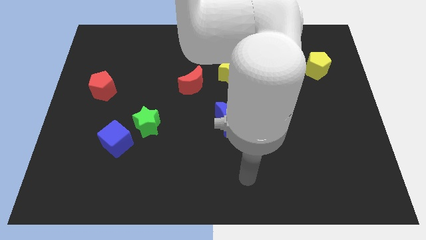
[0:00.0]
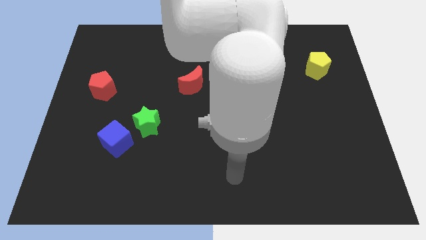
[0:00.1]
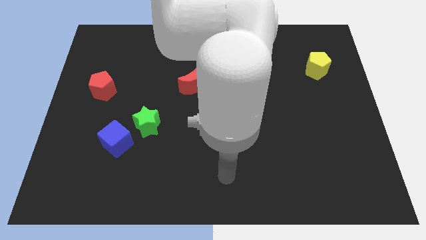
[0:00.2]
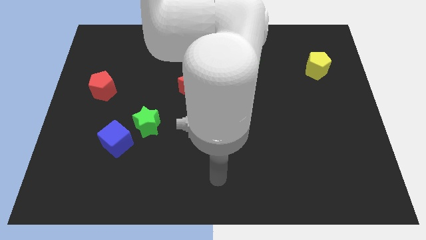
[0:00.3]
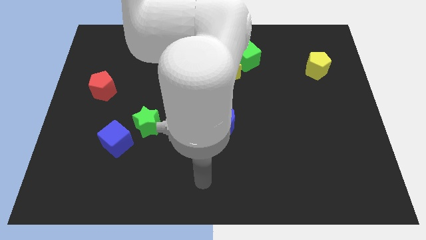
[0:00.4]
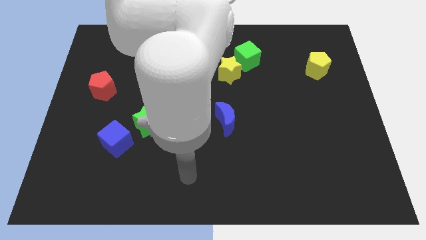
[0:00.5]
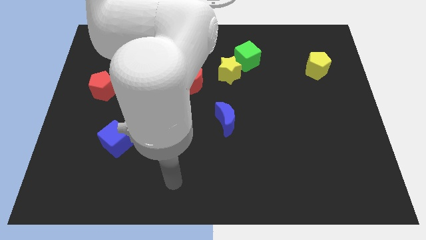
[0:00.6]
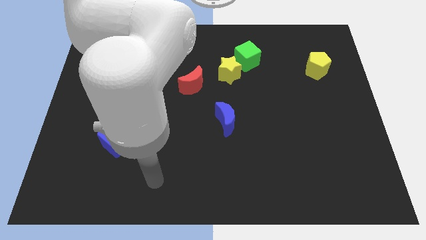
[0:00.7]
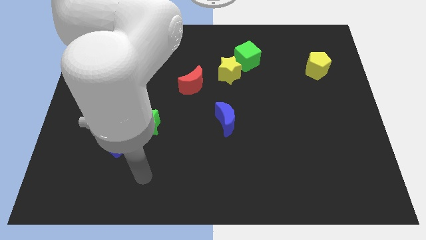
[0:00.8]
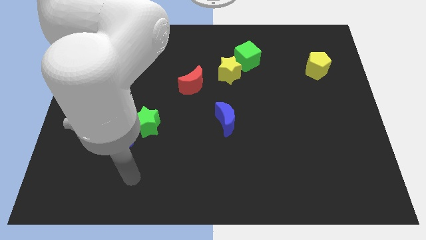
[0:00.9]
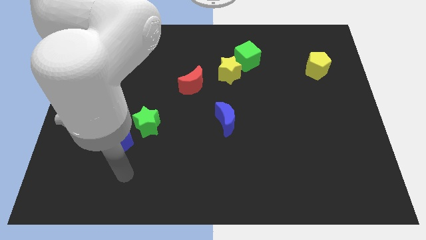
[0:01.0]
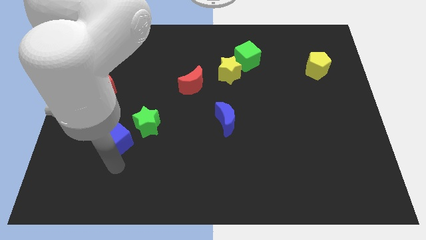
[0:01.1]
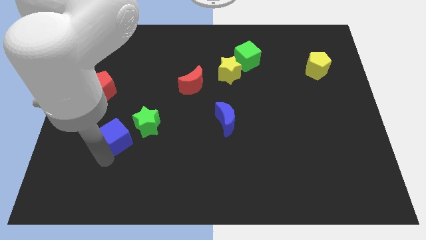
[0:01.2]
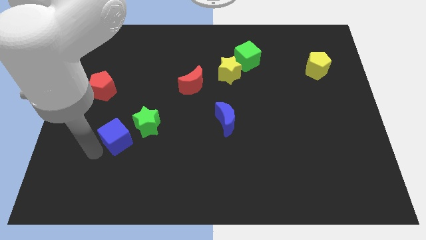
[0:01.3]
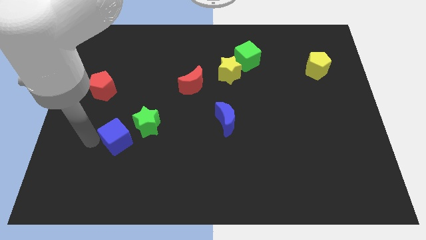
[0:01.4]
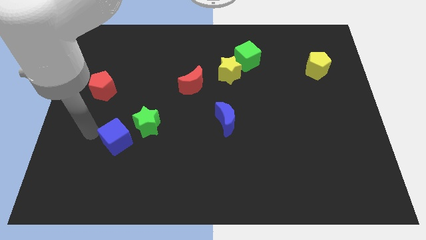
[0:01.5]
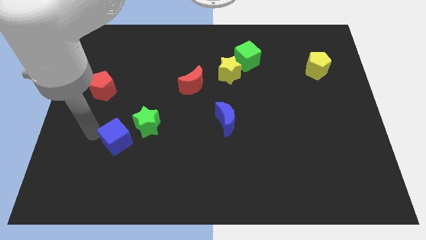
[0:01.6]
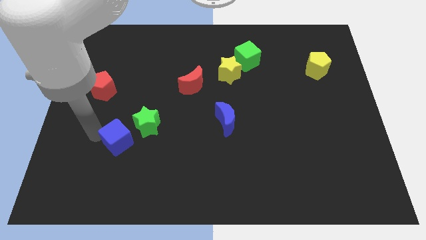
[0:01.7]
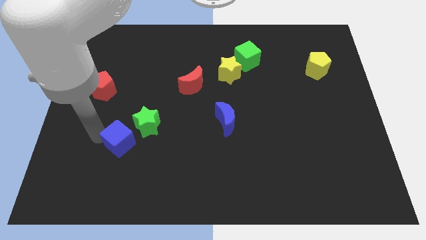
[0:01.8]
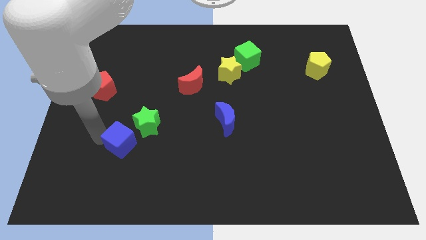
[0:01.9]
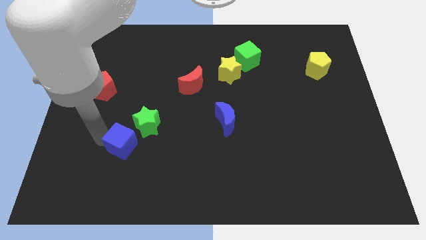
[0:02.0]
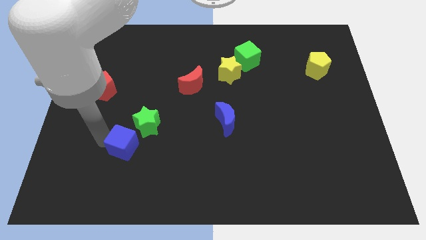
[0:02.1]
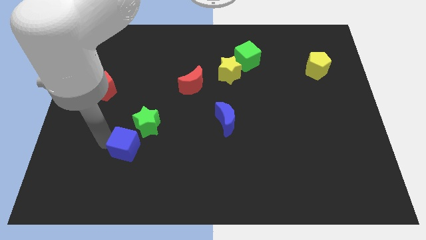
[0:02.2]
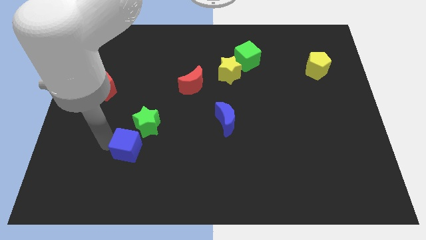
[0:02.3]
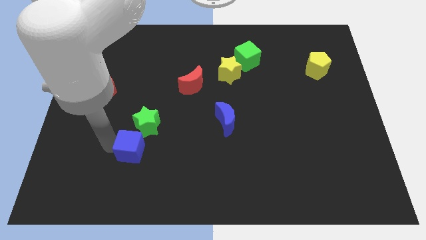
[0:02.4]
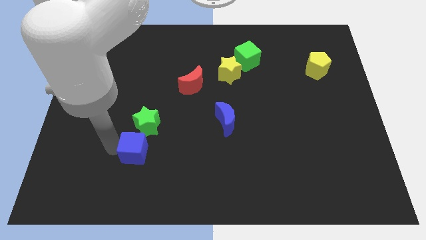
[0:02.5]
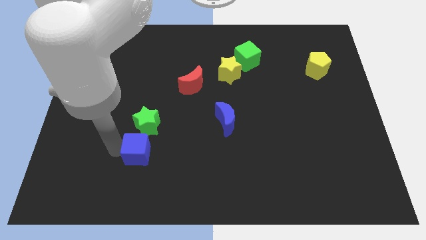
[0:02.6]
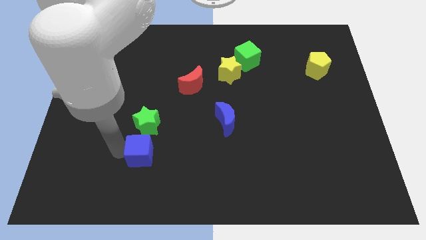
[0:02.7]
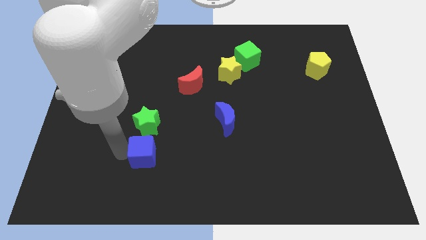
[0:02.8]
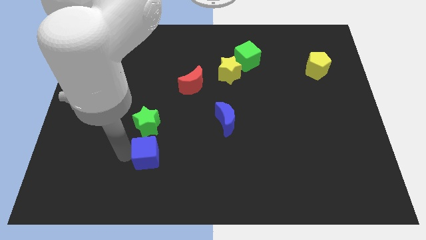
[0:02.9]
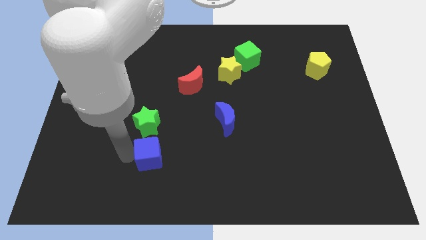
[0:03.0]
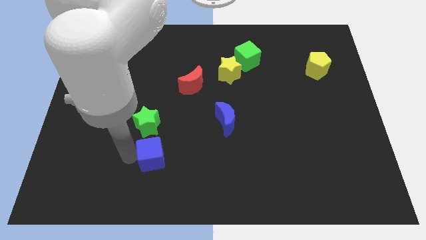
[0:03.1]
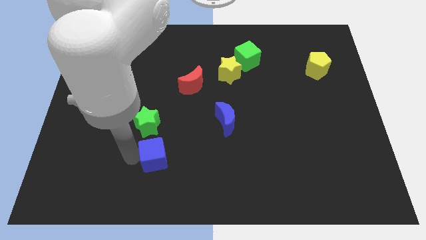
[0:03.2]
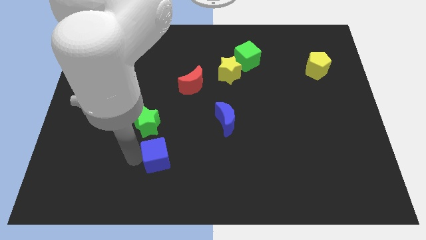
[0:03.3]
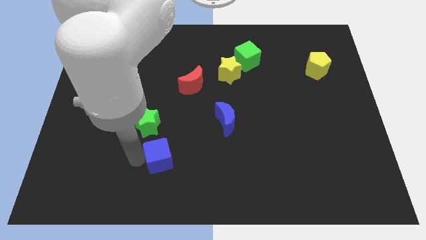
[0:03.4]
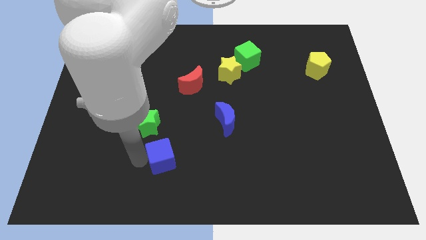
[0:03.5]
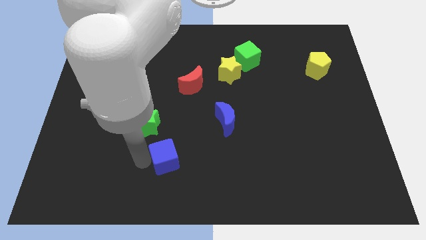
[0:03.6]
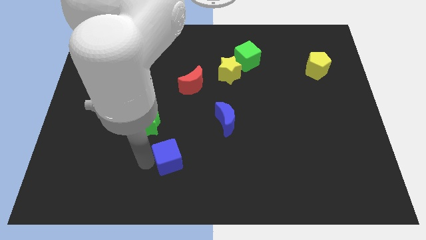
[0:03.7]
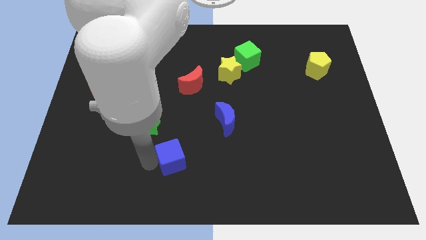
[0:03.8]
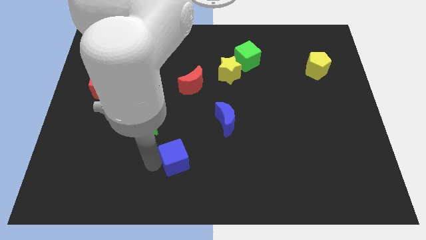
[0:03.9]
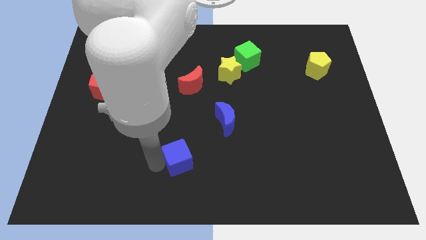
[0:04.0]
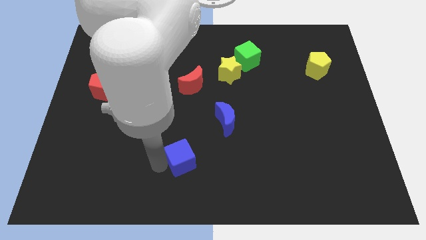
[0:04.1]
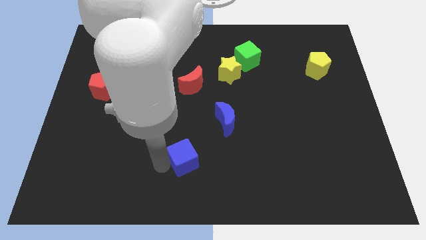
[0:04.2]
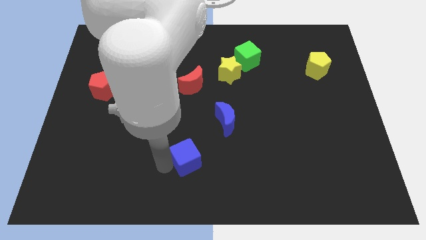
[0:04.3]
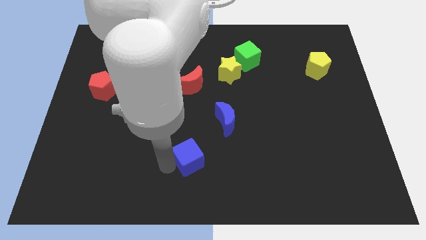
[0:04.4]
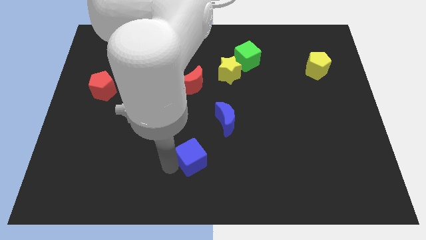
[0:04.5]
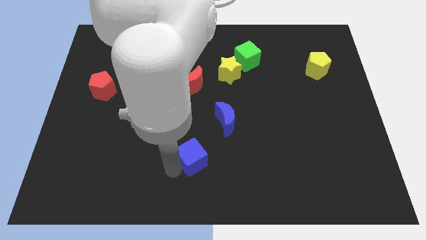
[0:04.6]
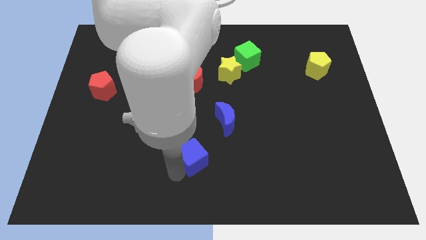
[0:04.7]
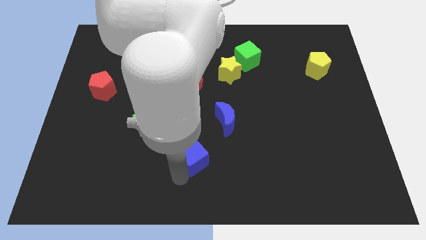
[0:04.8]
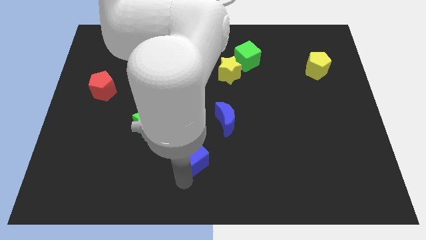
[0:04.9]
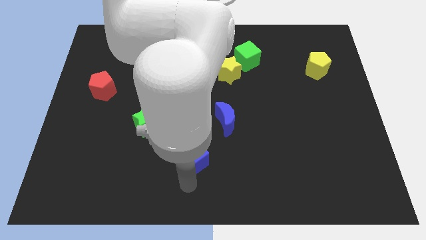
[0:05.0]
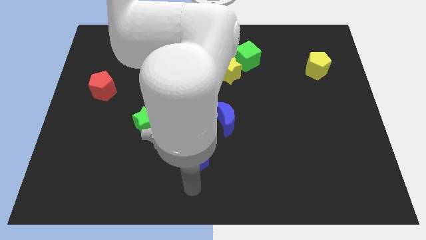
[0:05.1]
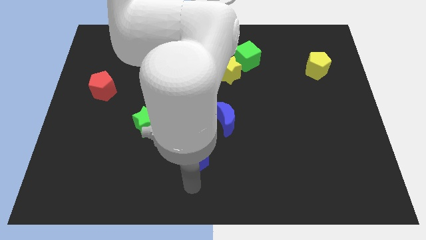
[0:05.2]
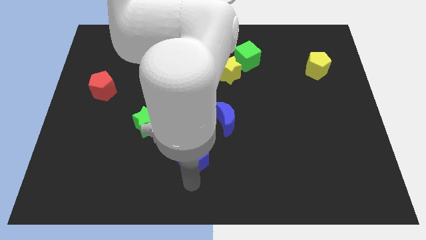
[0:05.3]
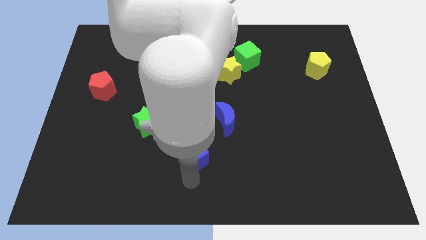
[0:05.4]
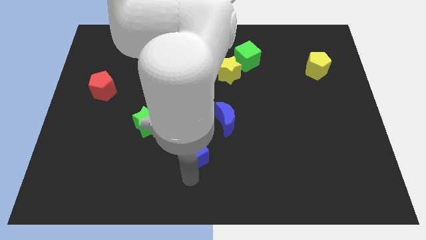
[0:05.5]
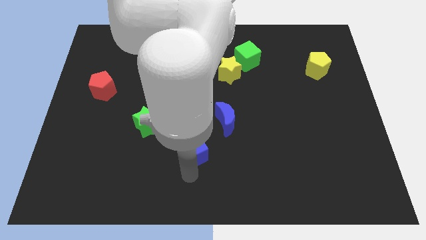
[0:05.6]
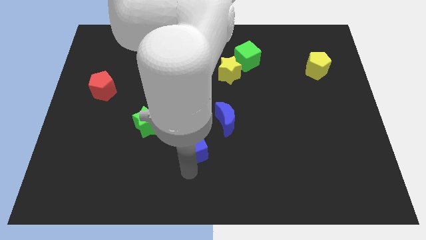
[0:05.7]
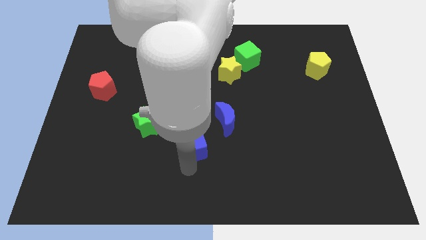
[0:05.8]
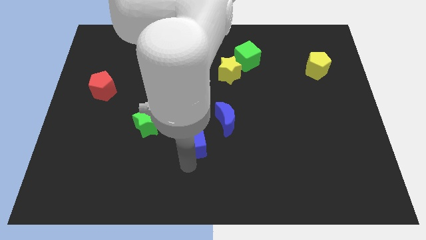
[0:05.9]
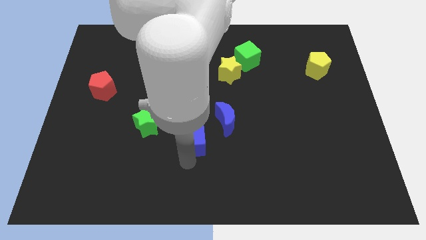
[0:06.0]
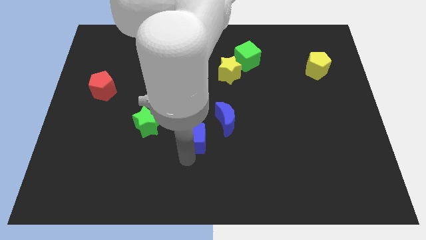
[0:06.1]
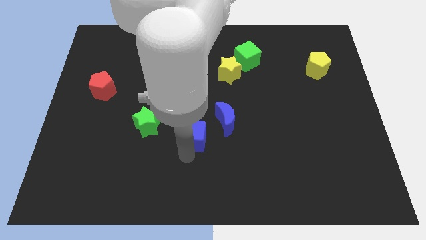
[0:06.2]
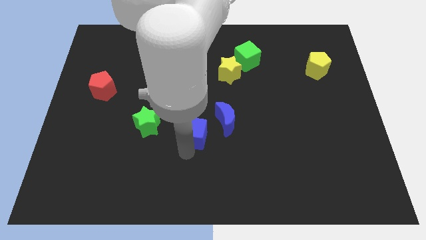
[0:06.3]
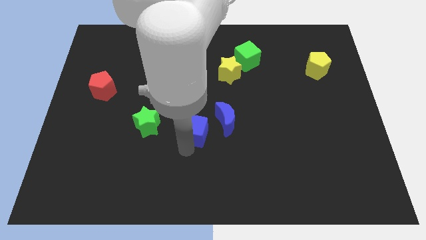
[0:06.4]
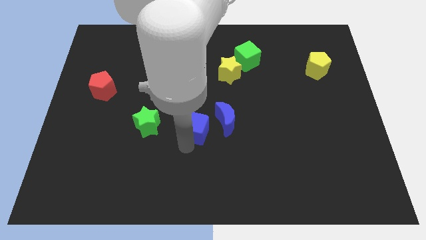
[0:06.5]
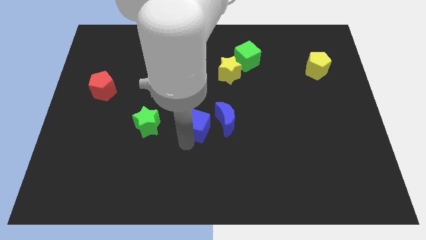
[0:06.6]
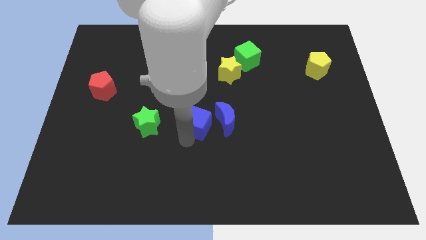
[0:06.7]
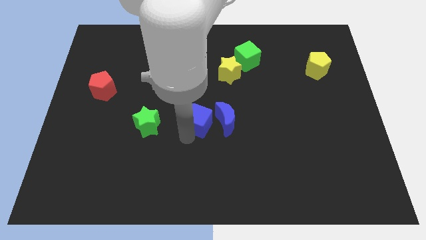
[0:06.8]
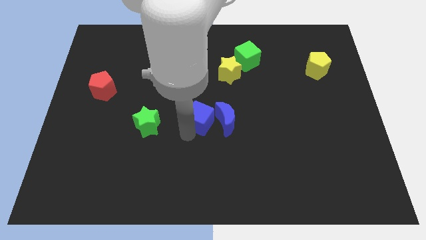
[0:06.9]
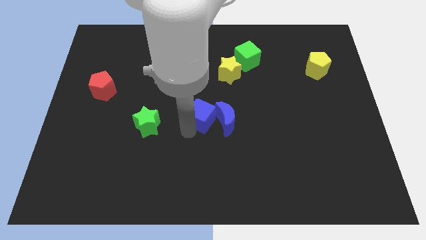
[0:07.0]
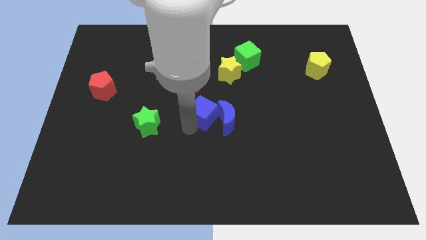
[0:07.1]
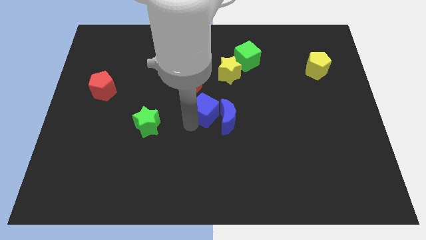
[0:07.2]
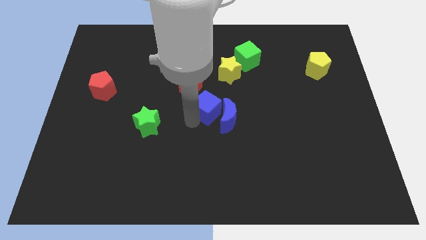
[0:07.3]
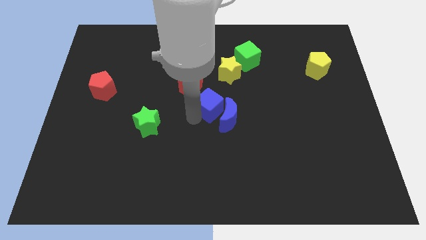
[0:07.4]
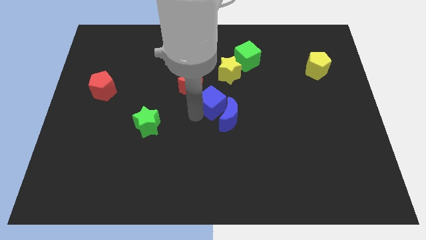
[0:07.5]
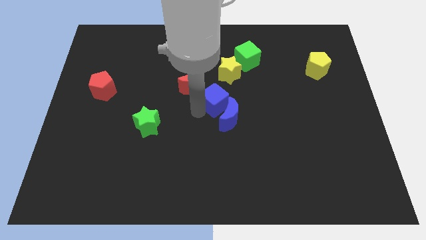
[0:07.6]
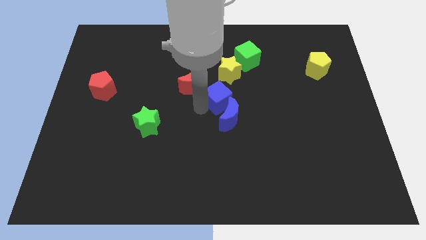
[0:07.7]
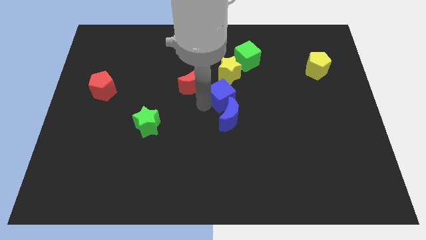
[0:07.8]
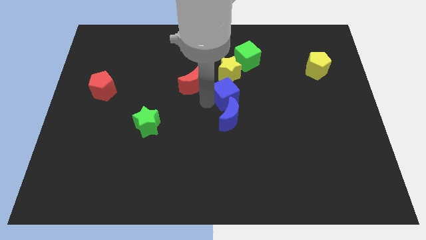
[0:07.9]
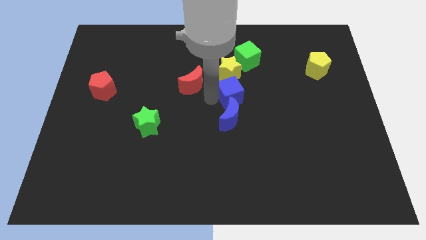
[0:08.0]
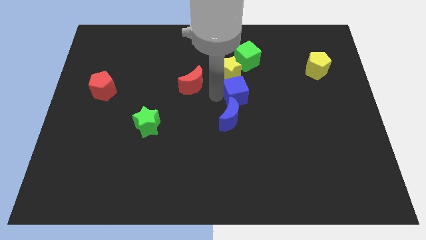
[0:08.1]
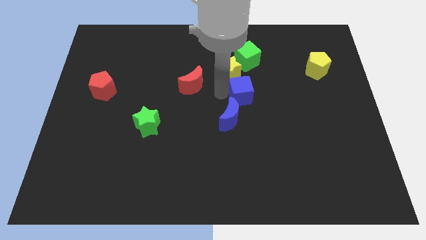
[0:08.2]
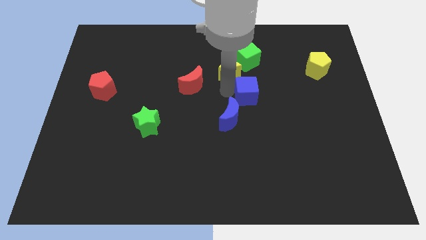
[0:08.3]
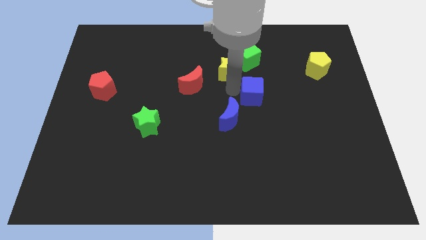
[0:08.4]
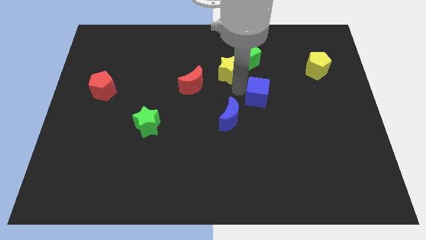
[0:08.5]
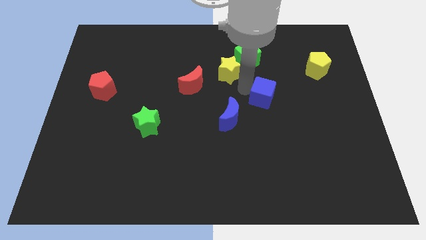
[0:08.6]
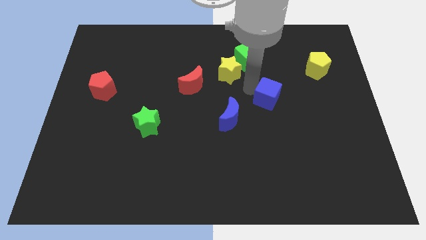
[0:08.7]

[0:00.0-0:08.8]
push the blue cube to the right
